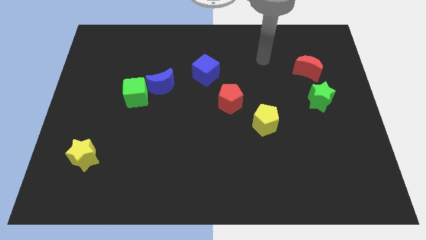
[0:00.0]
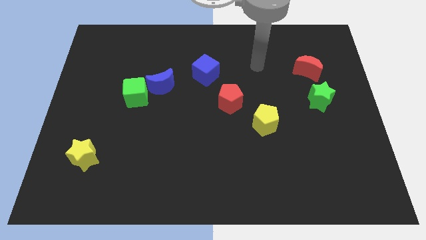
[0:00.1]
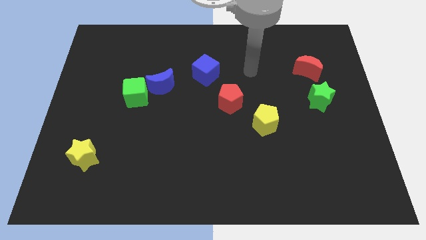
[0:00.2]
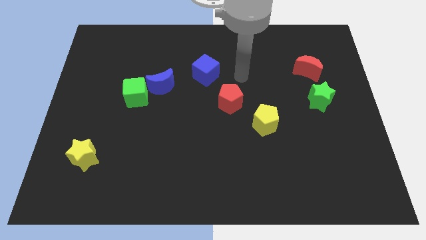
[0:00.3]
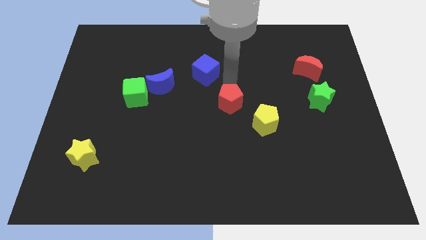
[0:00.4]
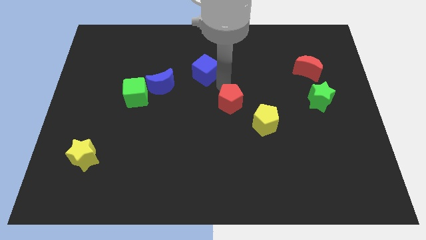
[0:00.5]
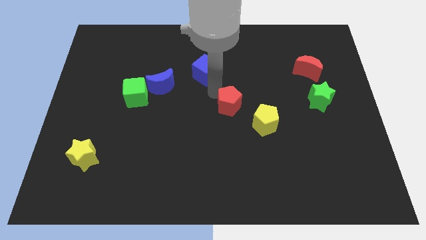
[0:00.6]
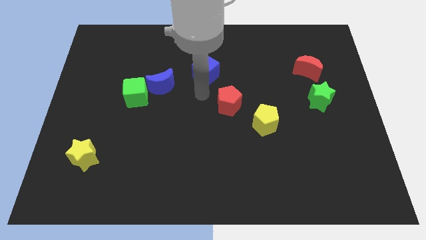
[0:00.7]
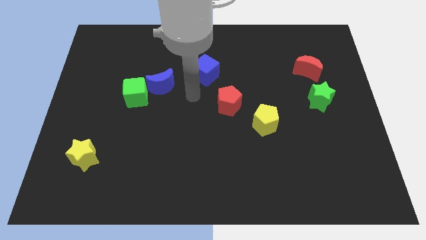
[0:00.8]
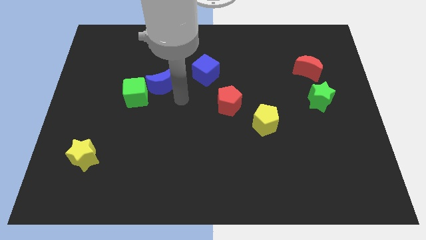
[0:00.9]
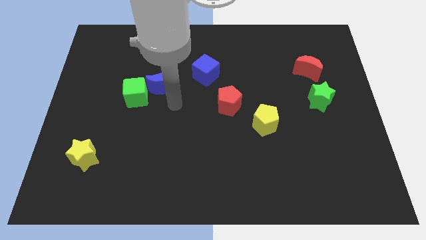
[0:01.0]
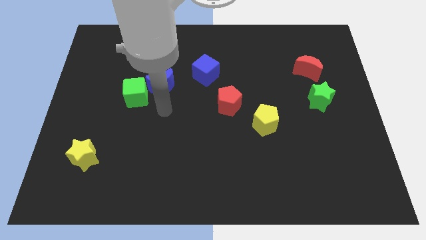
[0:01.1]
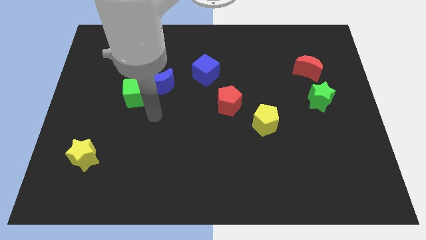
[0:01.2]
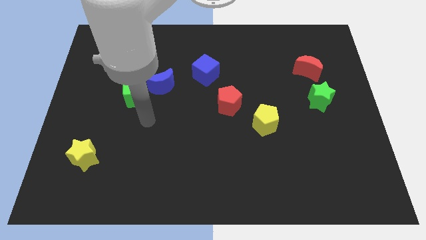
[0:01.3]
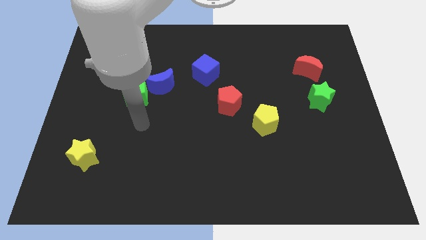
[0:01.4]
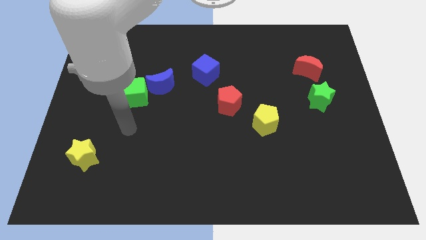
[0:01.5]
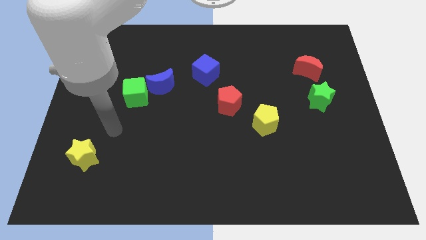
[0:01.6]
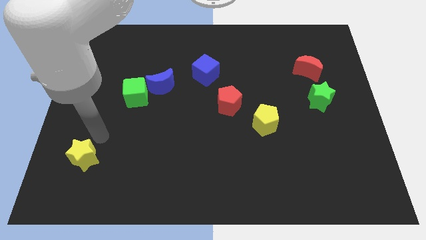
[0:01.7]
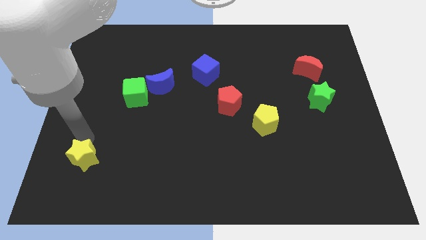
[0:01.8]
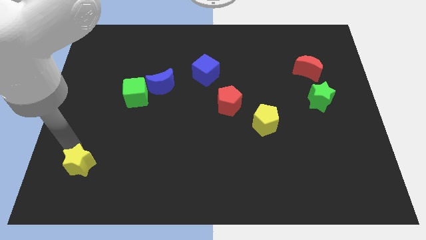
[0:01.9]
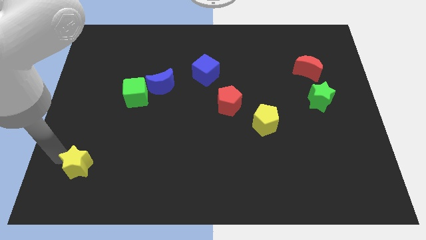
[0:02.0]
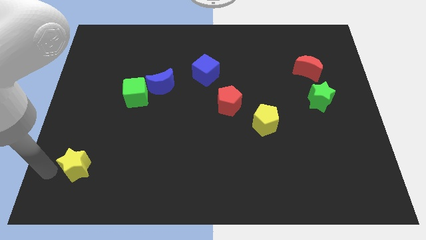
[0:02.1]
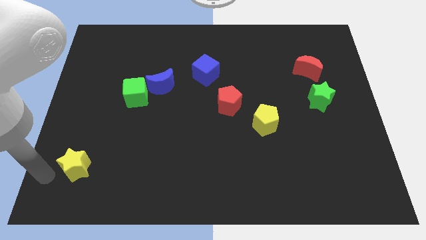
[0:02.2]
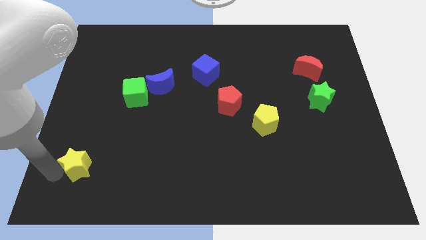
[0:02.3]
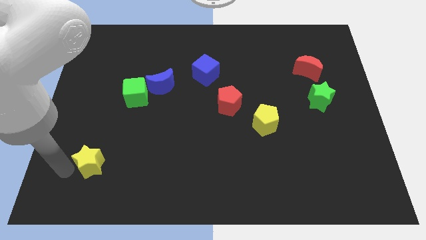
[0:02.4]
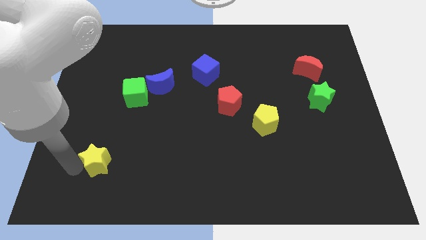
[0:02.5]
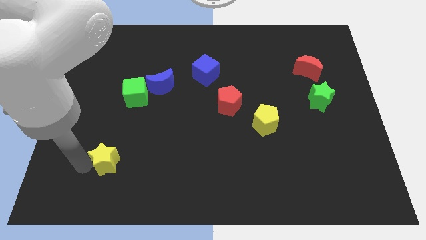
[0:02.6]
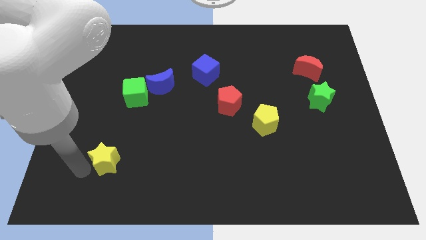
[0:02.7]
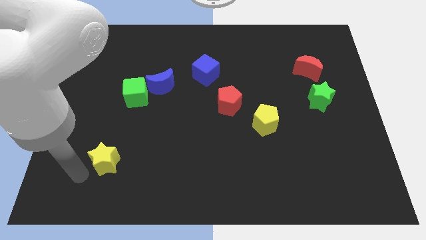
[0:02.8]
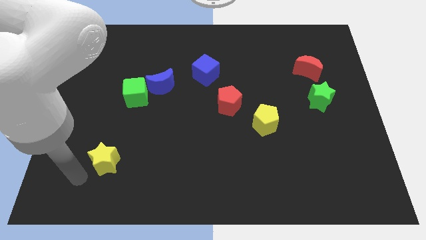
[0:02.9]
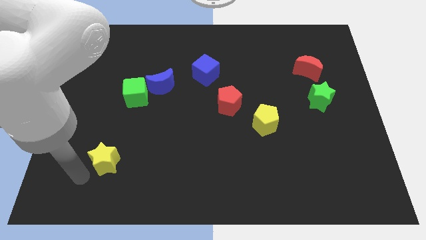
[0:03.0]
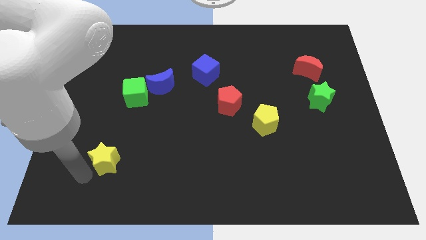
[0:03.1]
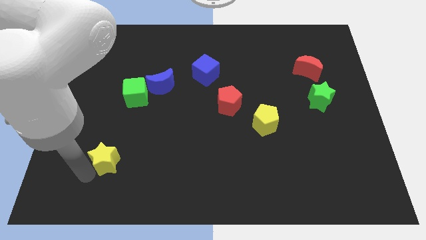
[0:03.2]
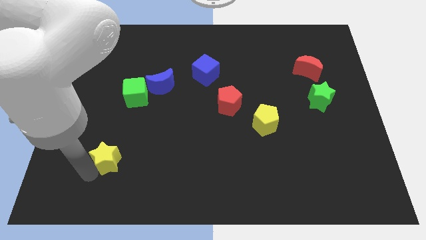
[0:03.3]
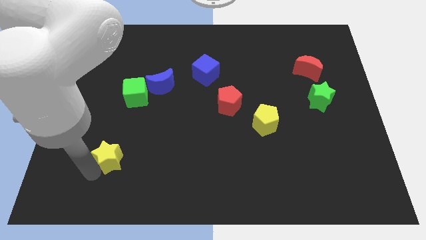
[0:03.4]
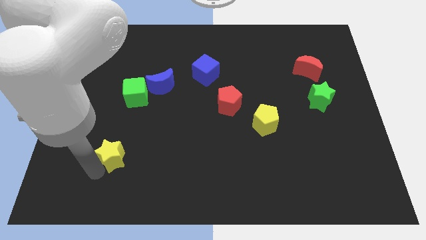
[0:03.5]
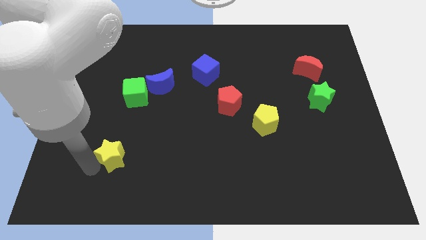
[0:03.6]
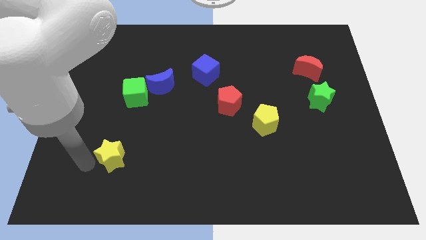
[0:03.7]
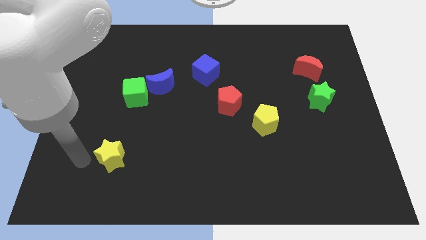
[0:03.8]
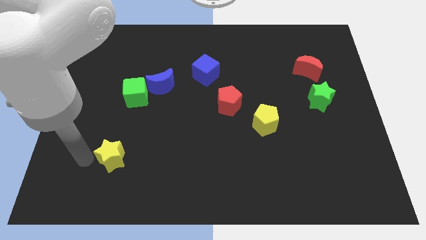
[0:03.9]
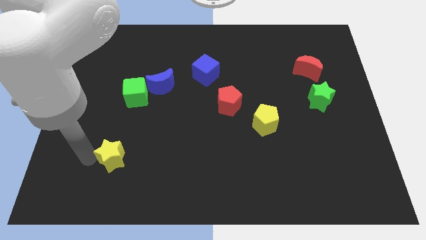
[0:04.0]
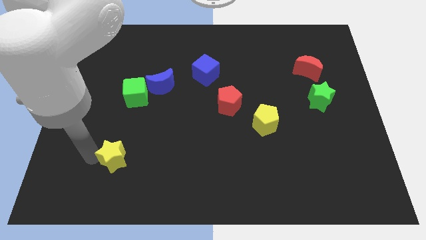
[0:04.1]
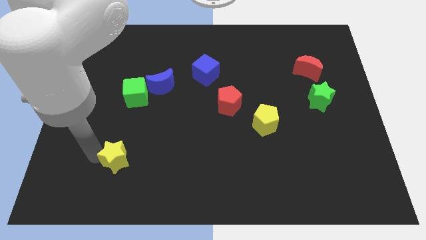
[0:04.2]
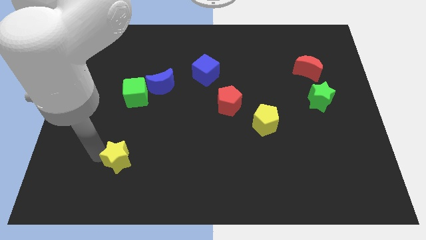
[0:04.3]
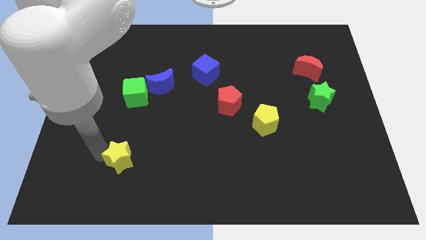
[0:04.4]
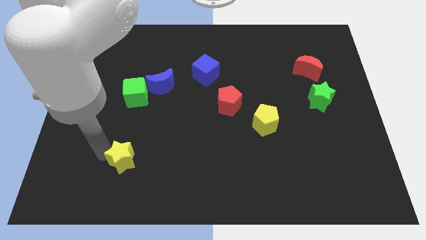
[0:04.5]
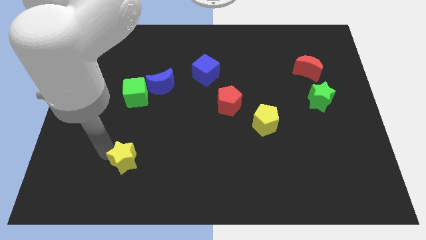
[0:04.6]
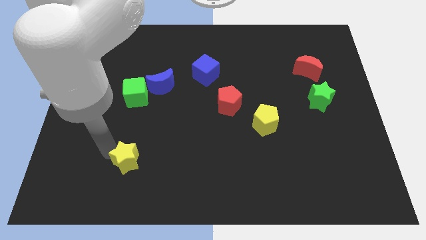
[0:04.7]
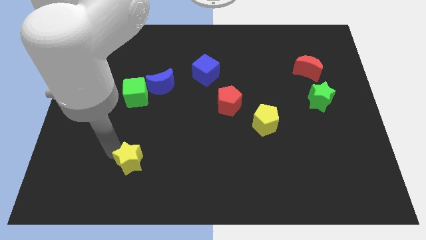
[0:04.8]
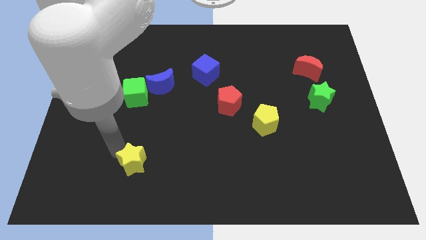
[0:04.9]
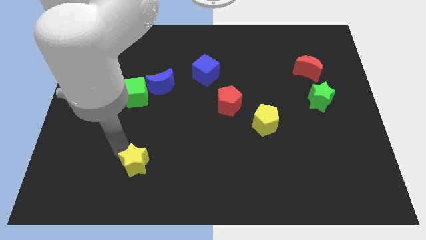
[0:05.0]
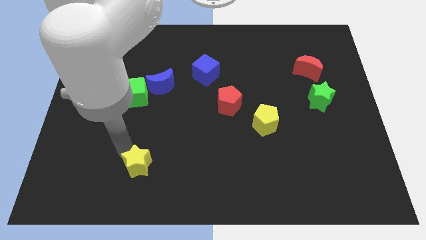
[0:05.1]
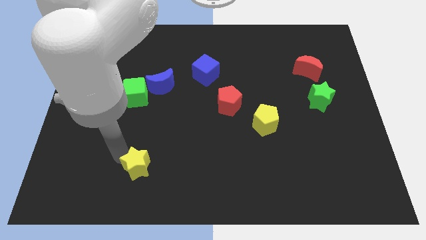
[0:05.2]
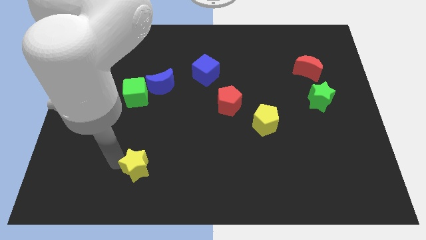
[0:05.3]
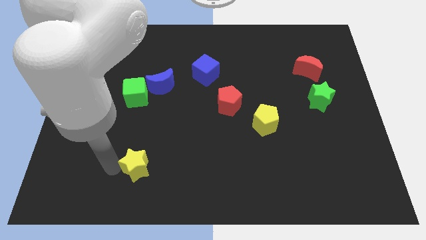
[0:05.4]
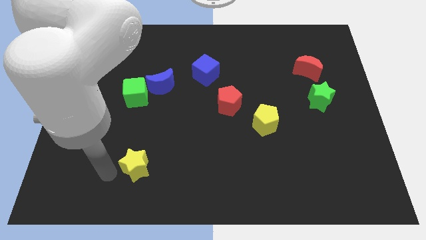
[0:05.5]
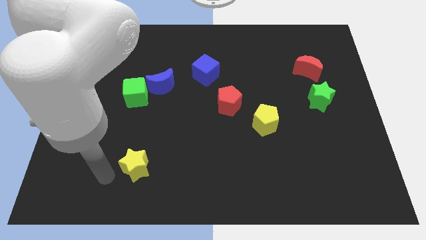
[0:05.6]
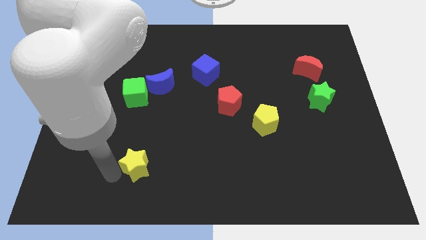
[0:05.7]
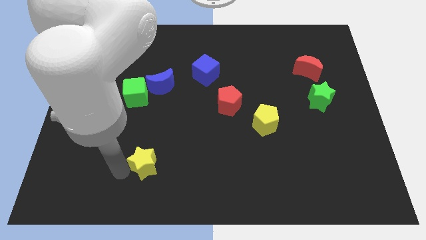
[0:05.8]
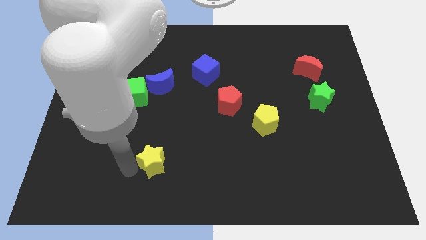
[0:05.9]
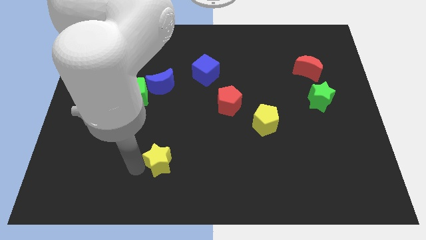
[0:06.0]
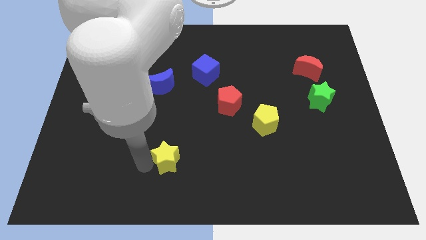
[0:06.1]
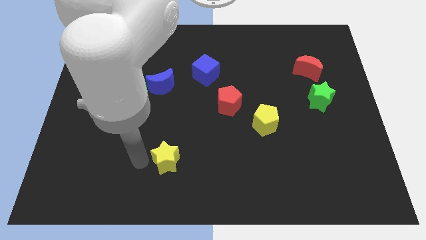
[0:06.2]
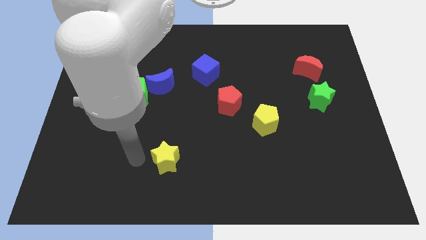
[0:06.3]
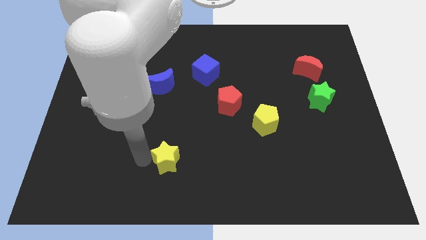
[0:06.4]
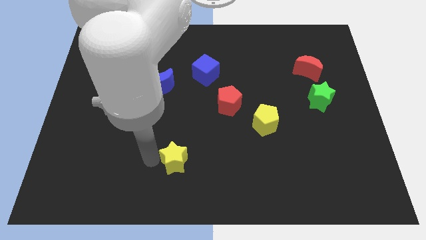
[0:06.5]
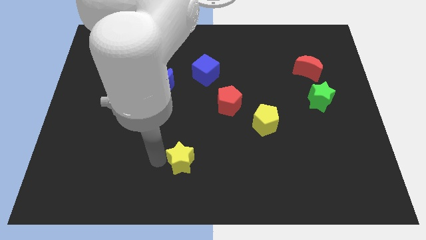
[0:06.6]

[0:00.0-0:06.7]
move the yellow star right

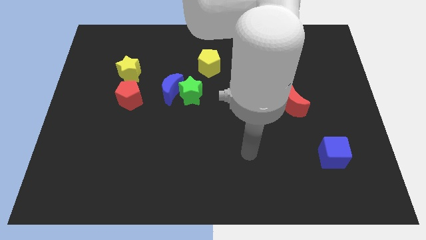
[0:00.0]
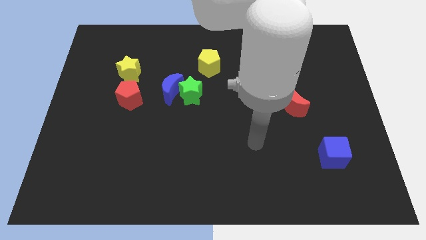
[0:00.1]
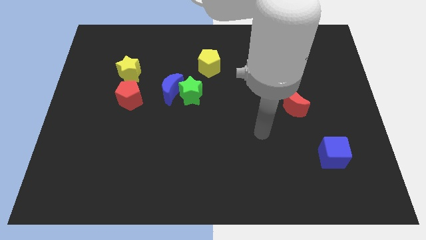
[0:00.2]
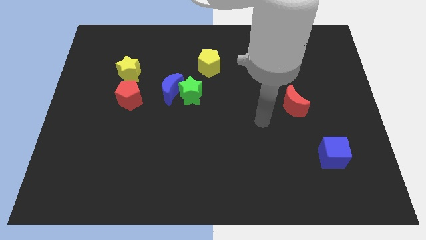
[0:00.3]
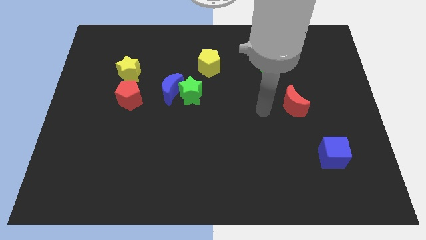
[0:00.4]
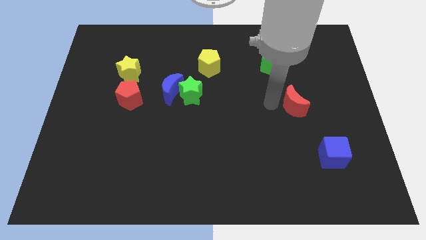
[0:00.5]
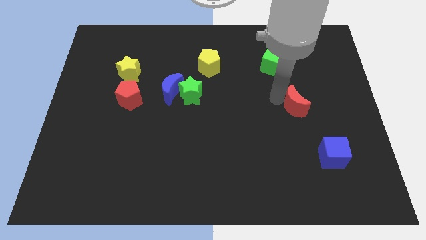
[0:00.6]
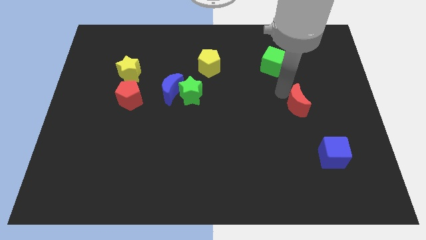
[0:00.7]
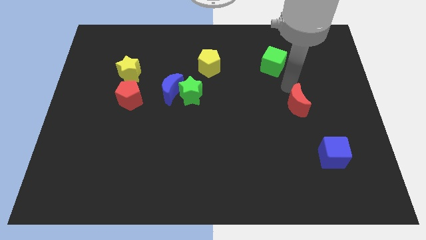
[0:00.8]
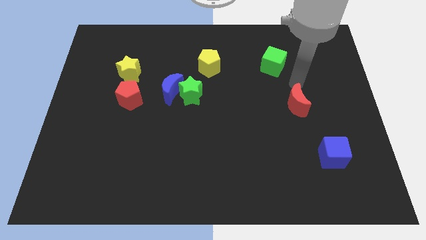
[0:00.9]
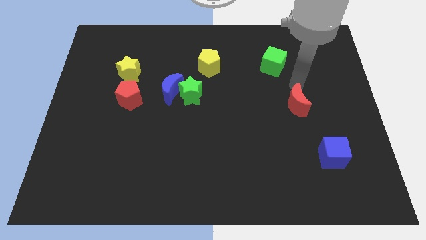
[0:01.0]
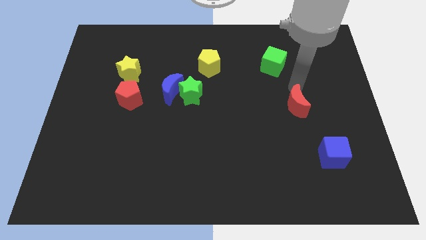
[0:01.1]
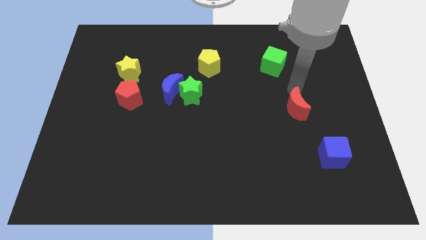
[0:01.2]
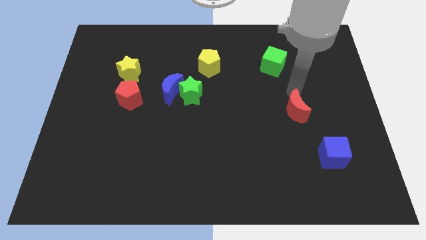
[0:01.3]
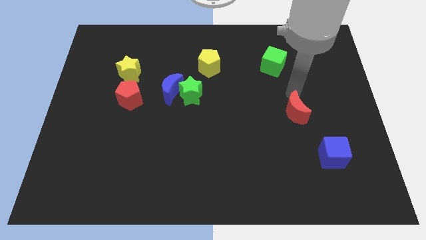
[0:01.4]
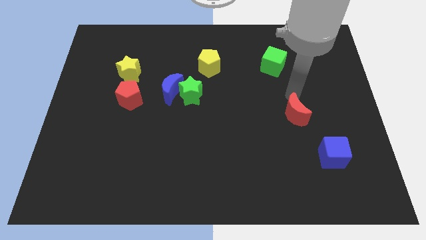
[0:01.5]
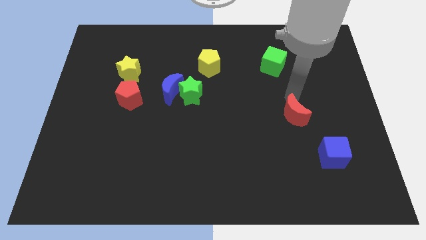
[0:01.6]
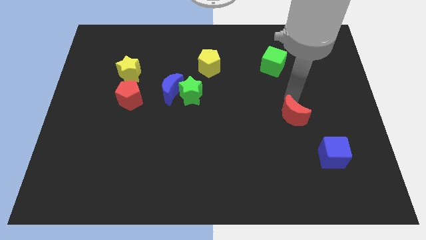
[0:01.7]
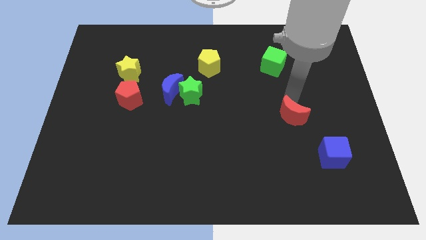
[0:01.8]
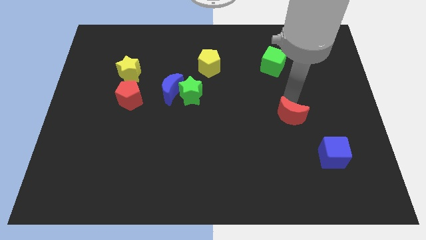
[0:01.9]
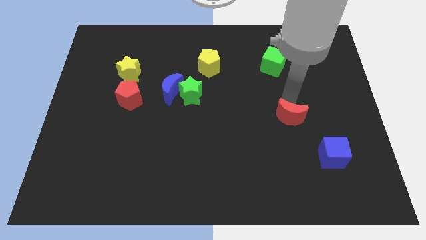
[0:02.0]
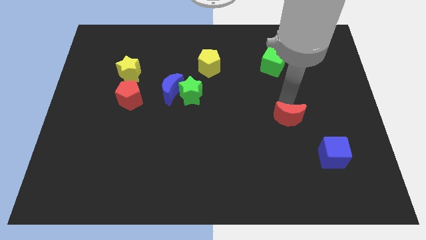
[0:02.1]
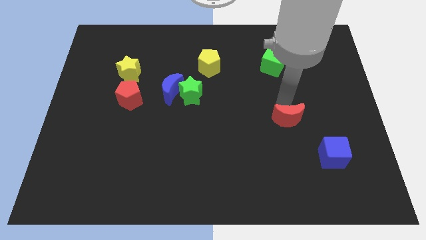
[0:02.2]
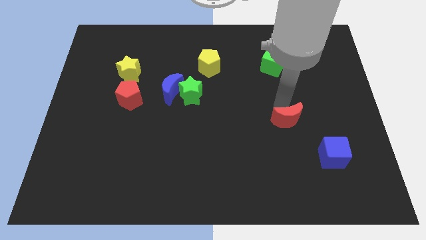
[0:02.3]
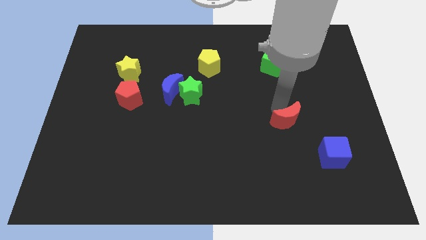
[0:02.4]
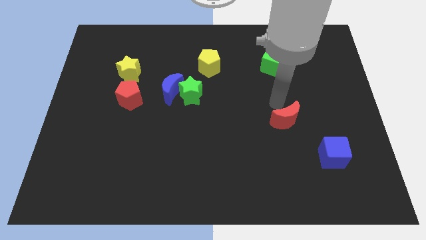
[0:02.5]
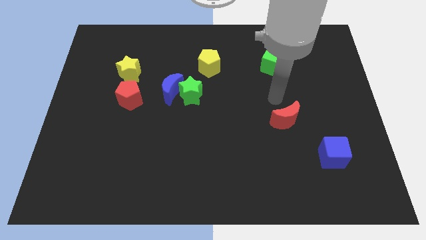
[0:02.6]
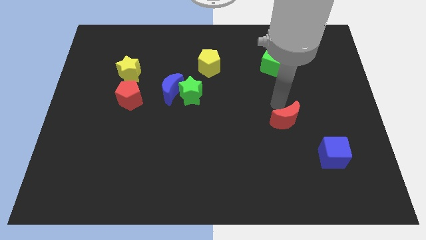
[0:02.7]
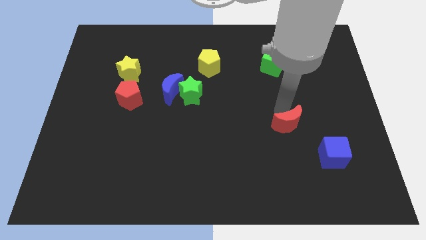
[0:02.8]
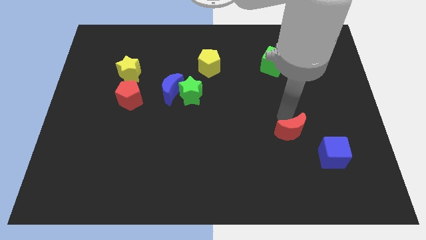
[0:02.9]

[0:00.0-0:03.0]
move the red moon a bit downwards
